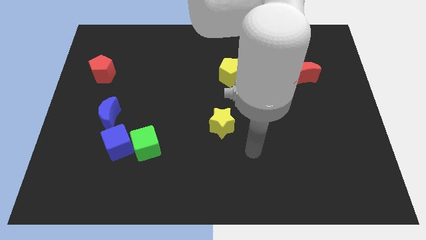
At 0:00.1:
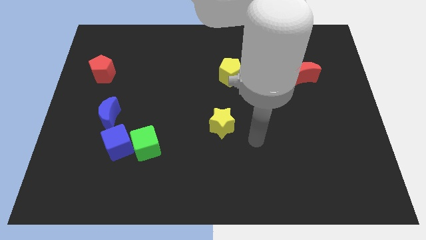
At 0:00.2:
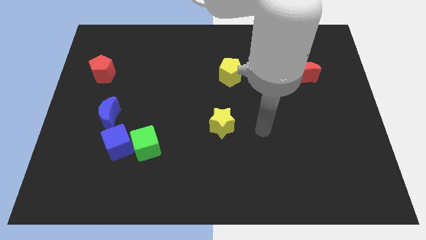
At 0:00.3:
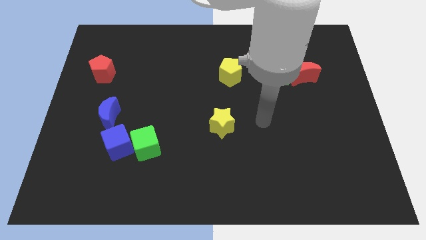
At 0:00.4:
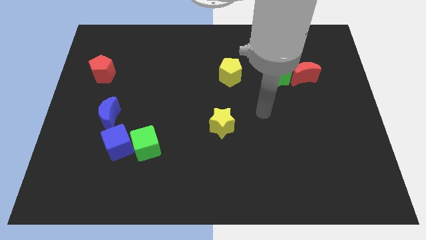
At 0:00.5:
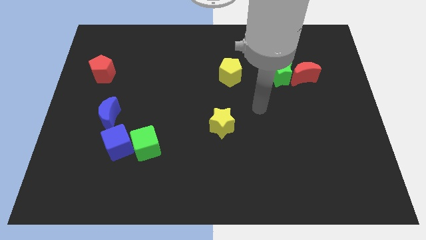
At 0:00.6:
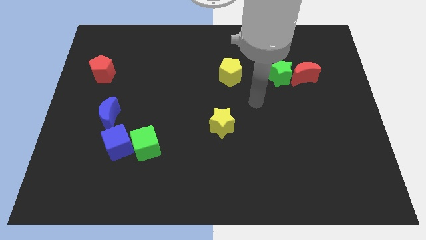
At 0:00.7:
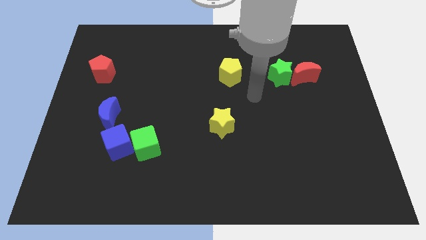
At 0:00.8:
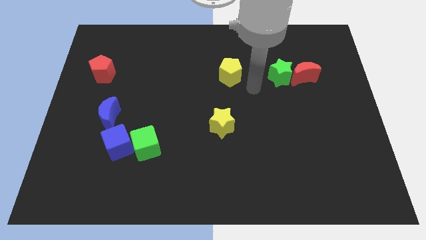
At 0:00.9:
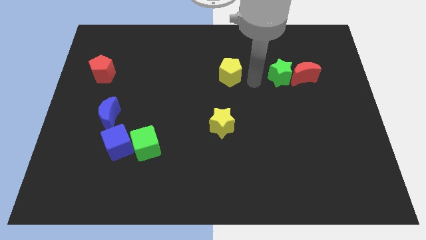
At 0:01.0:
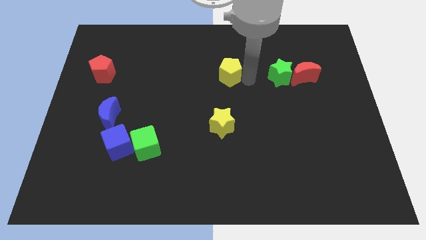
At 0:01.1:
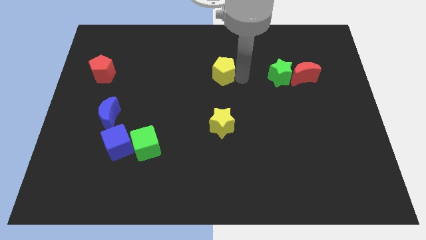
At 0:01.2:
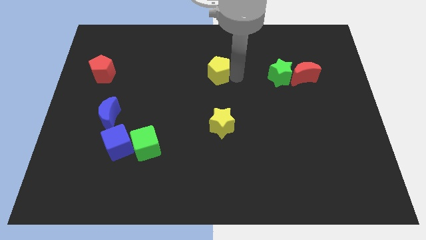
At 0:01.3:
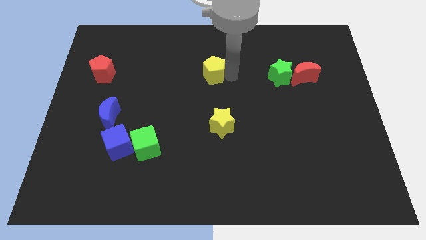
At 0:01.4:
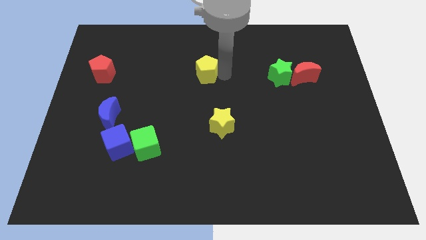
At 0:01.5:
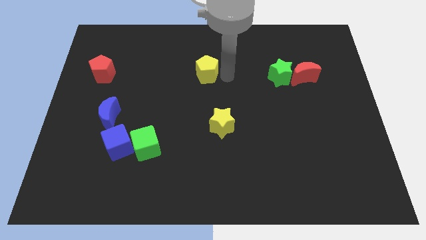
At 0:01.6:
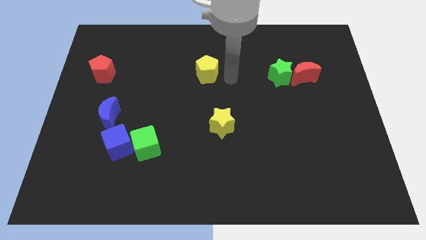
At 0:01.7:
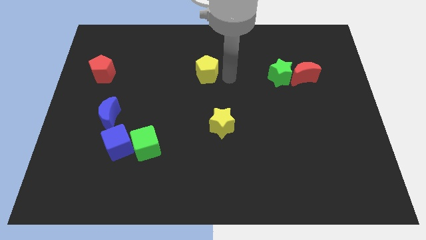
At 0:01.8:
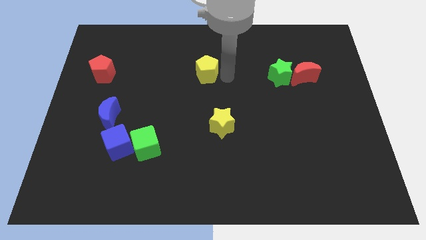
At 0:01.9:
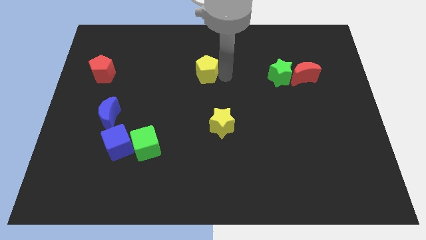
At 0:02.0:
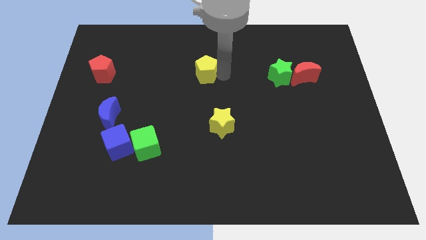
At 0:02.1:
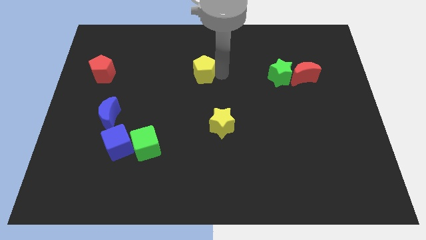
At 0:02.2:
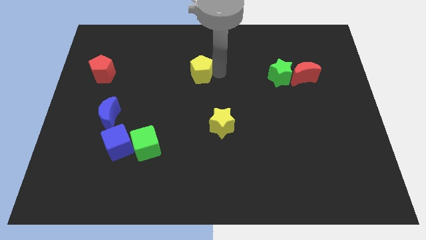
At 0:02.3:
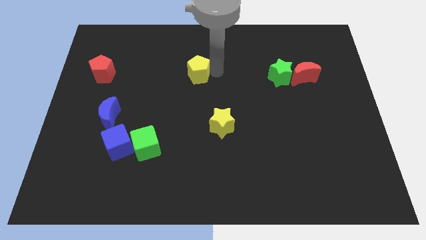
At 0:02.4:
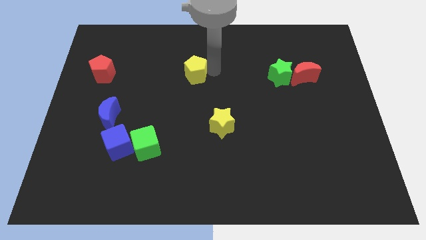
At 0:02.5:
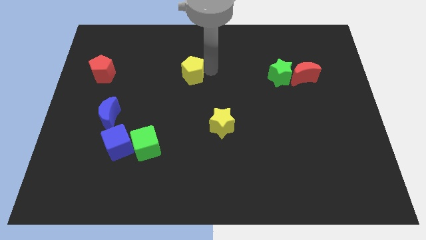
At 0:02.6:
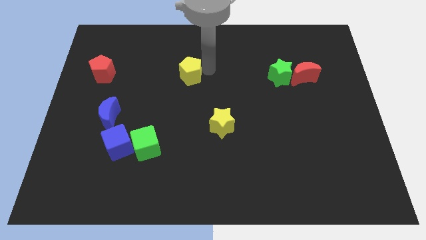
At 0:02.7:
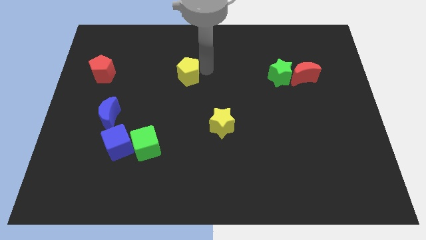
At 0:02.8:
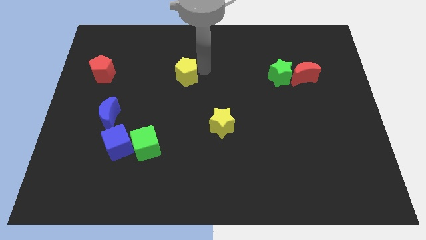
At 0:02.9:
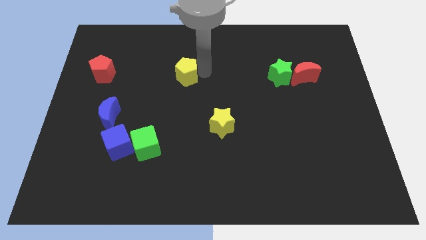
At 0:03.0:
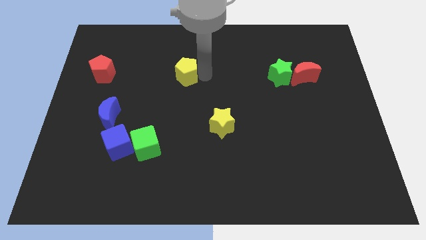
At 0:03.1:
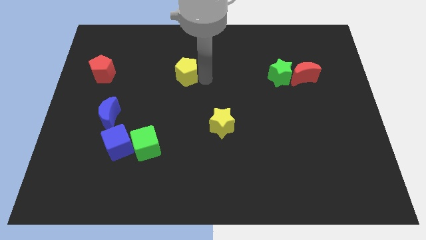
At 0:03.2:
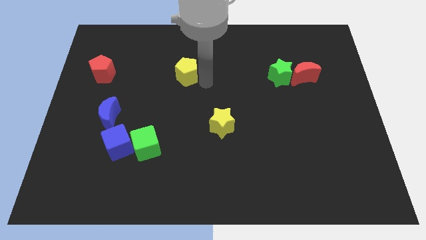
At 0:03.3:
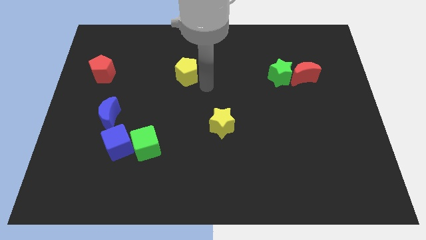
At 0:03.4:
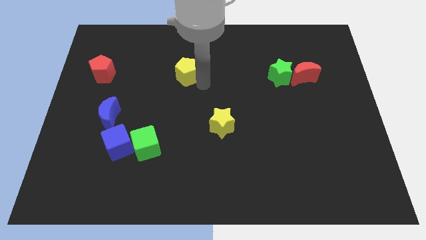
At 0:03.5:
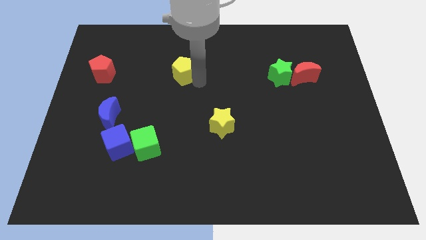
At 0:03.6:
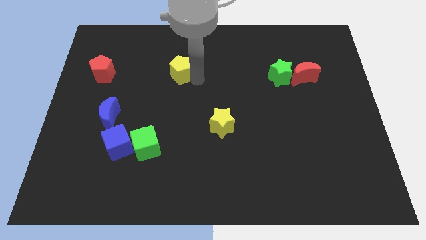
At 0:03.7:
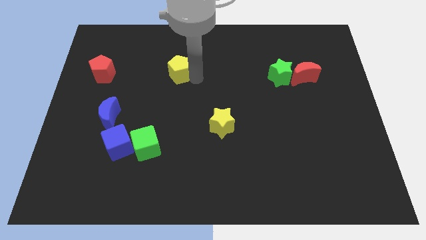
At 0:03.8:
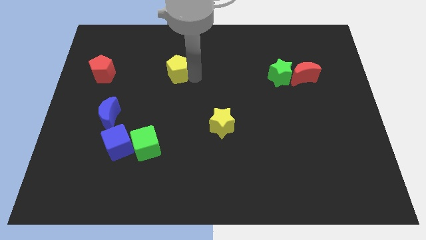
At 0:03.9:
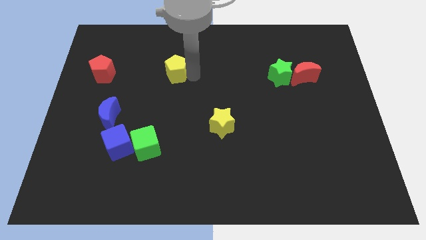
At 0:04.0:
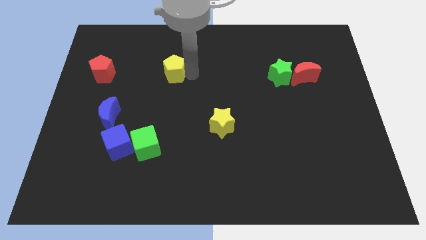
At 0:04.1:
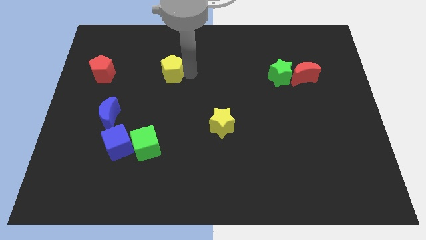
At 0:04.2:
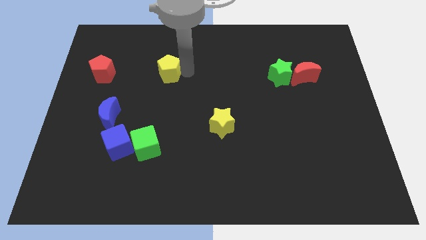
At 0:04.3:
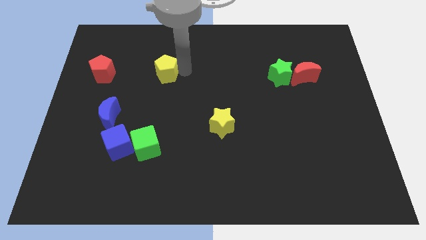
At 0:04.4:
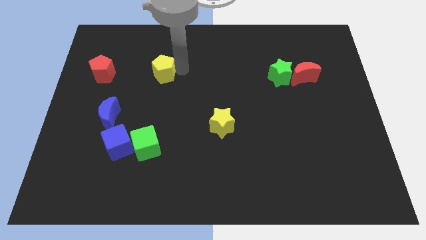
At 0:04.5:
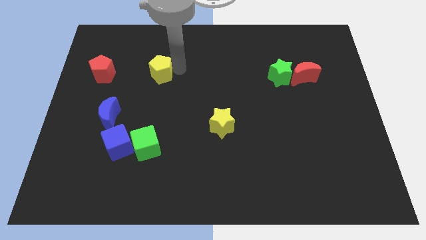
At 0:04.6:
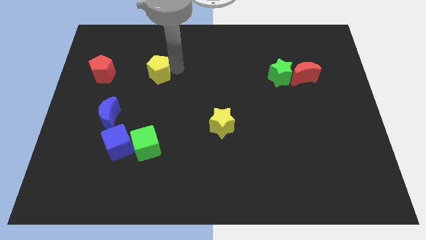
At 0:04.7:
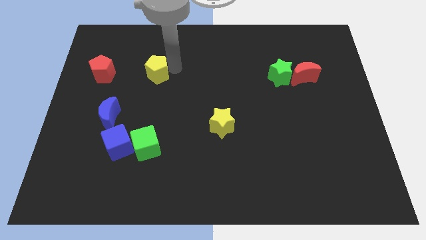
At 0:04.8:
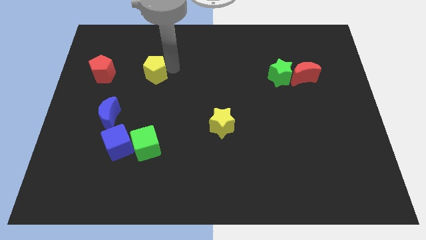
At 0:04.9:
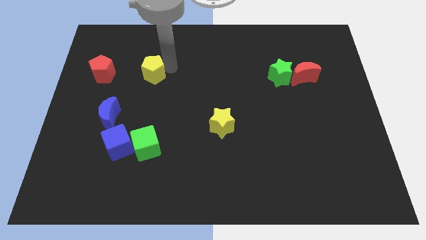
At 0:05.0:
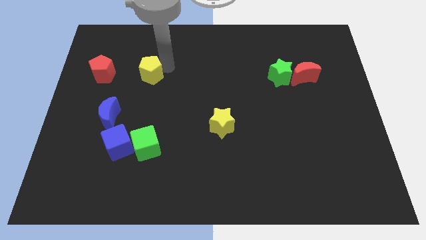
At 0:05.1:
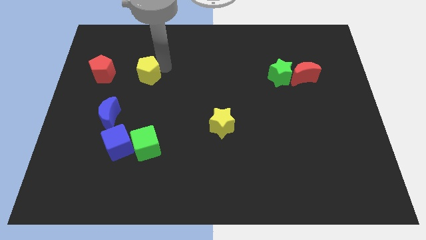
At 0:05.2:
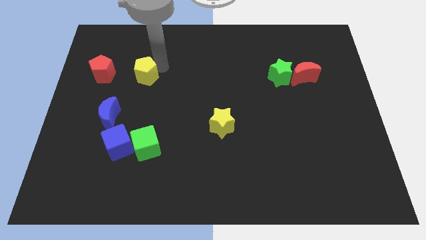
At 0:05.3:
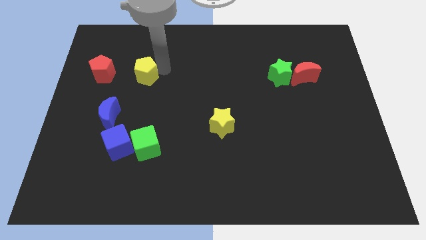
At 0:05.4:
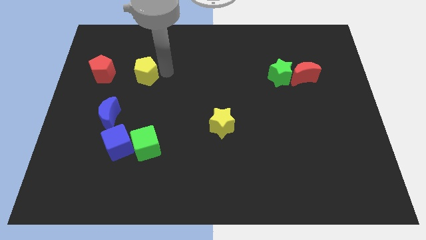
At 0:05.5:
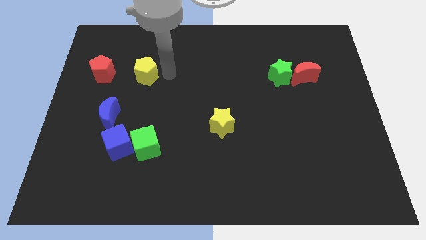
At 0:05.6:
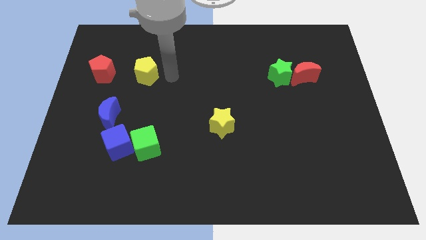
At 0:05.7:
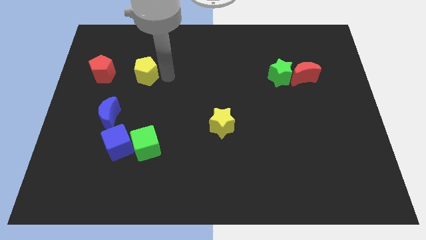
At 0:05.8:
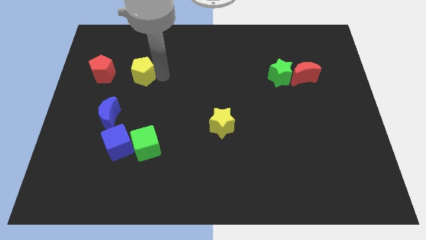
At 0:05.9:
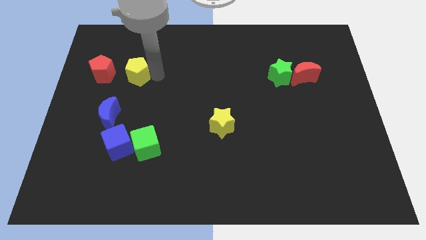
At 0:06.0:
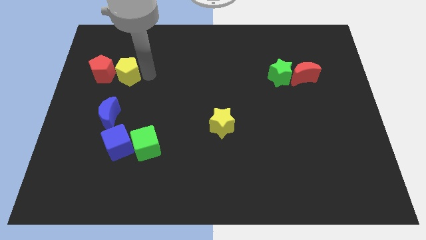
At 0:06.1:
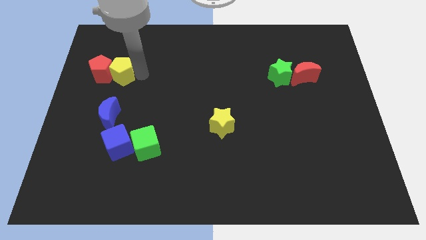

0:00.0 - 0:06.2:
push the yellow pentagon close to the red pentagon

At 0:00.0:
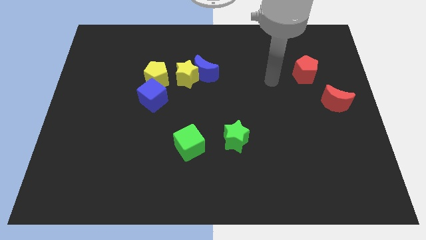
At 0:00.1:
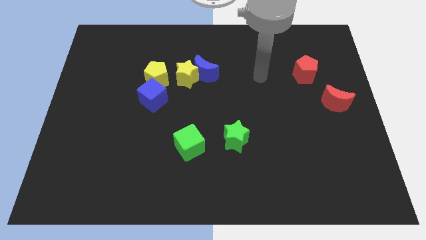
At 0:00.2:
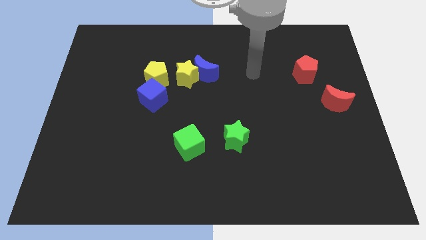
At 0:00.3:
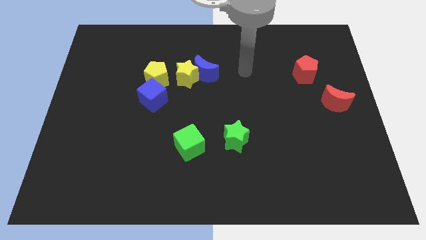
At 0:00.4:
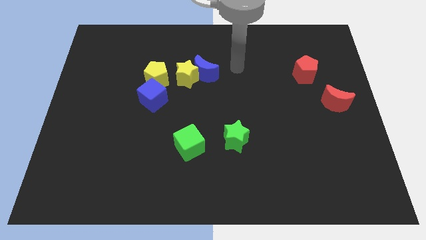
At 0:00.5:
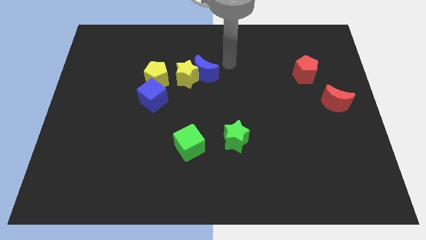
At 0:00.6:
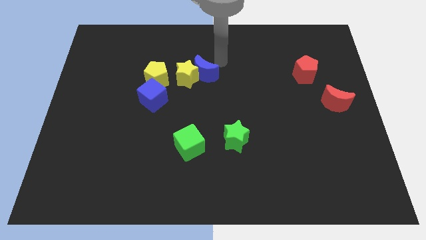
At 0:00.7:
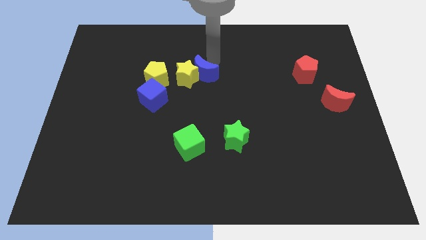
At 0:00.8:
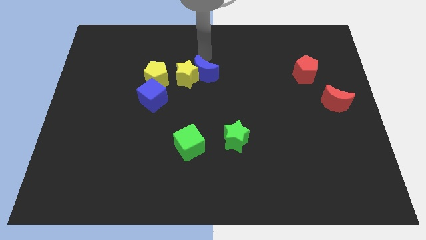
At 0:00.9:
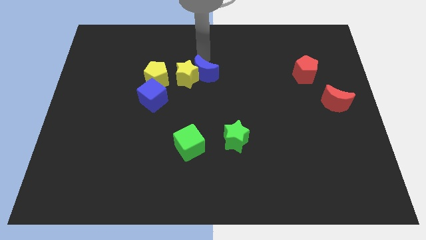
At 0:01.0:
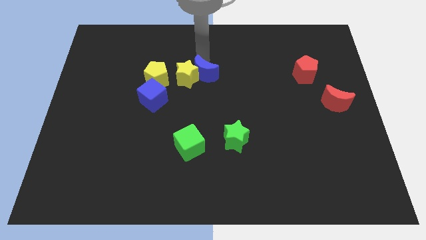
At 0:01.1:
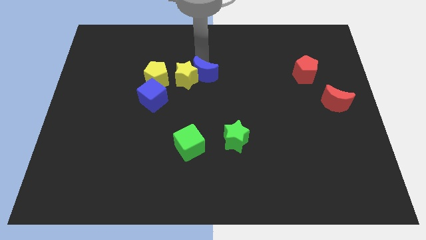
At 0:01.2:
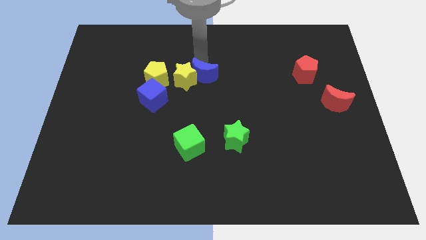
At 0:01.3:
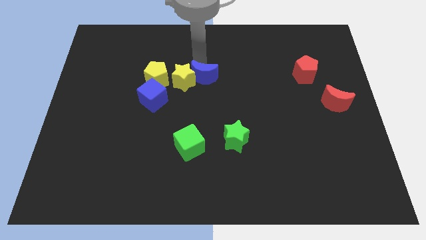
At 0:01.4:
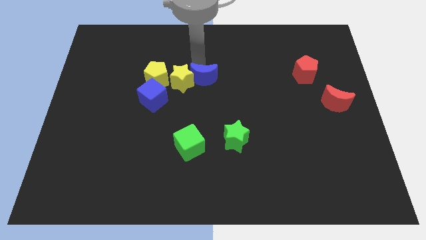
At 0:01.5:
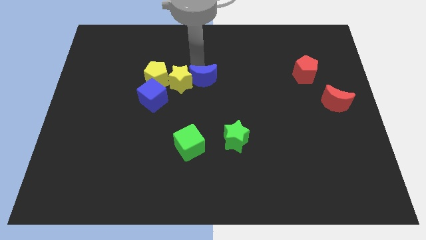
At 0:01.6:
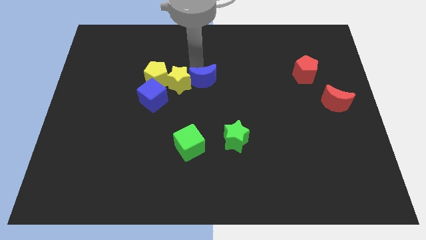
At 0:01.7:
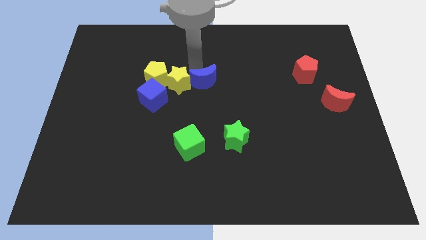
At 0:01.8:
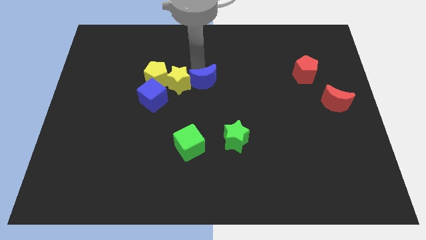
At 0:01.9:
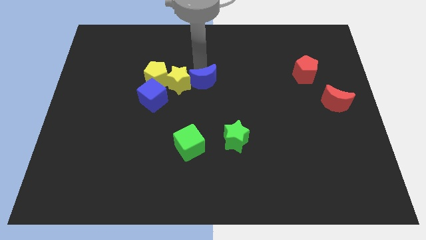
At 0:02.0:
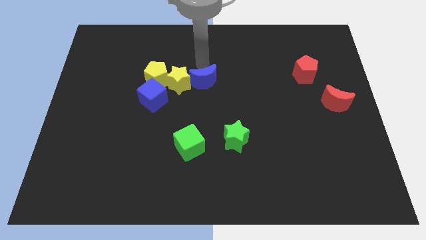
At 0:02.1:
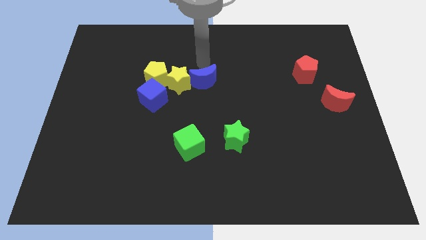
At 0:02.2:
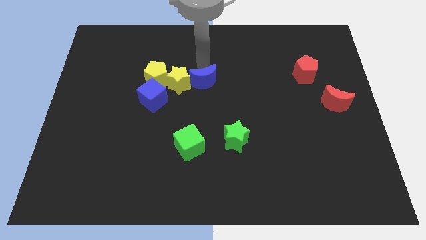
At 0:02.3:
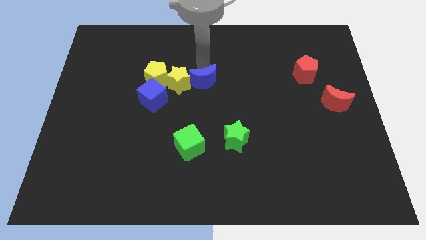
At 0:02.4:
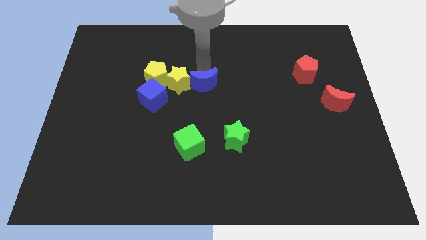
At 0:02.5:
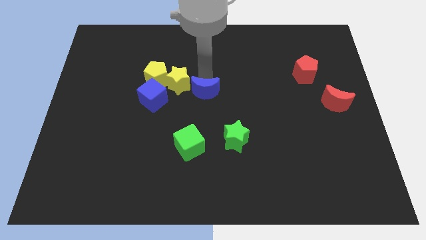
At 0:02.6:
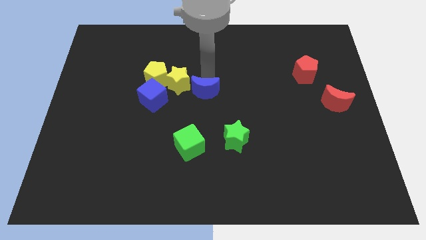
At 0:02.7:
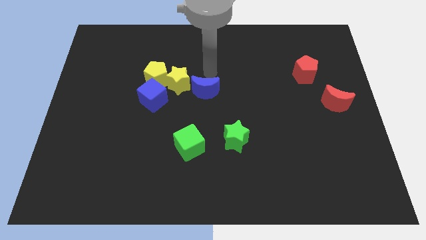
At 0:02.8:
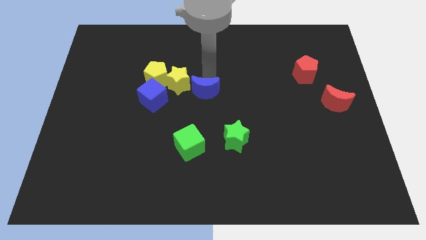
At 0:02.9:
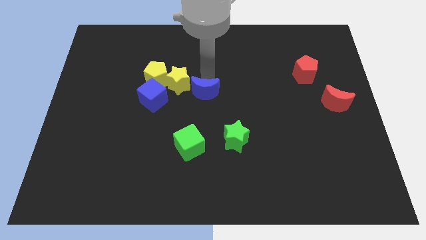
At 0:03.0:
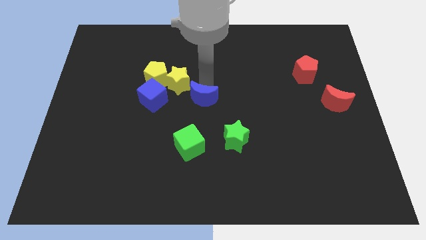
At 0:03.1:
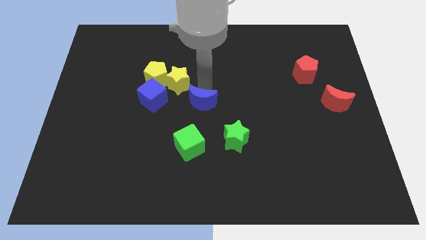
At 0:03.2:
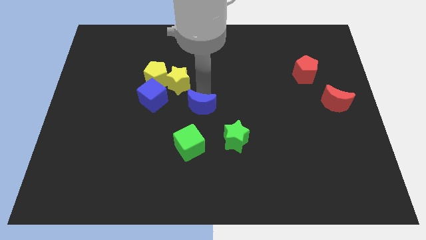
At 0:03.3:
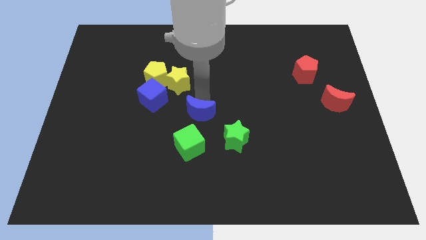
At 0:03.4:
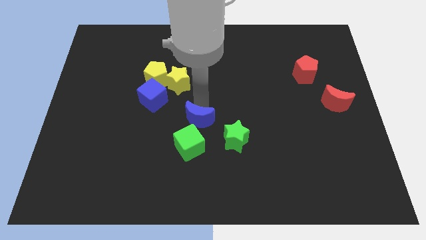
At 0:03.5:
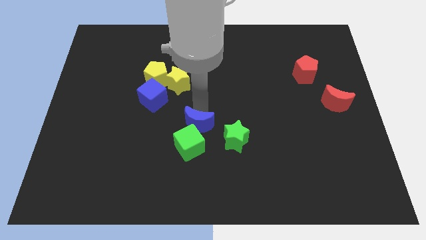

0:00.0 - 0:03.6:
move the blue moon close to the green cube
